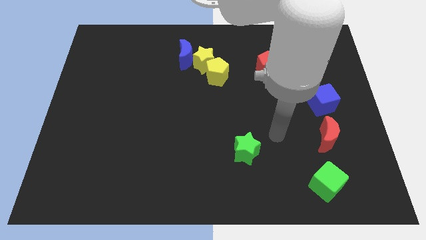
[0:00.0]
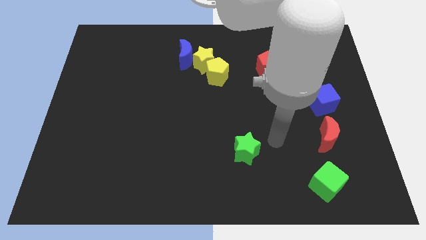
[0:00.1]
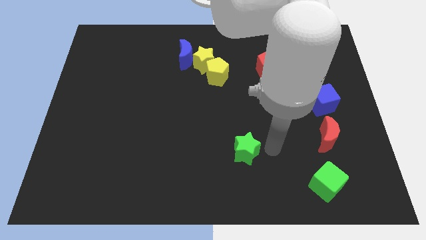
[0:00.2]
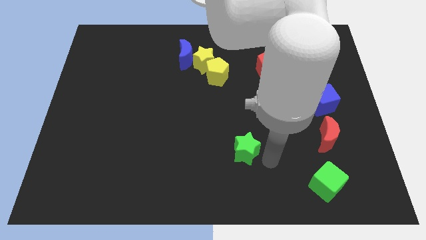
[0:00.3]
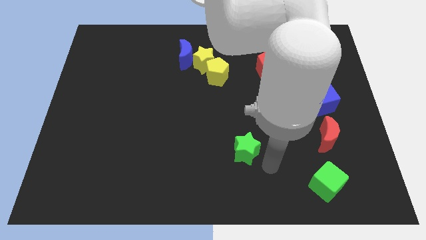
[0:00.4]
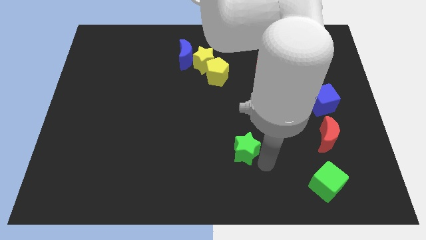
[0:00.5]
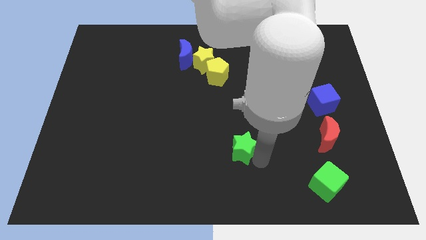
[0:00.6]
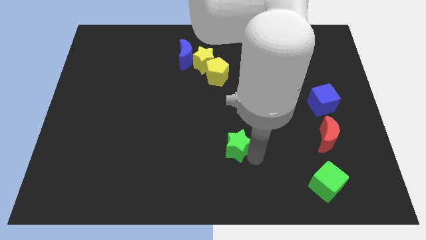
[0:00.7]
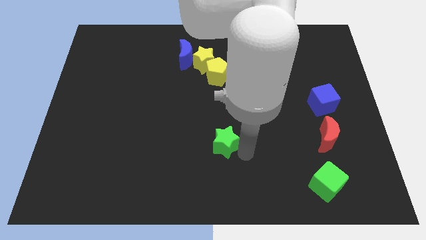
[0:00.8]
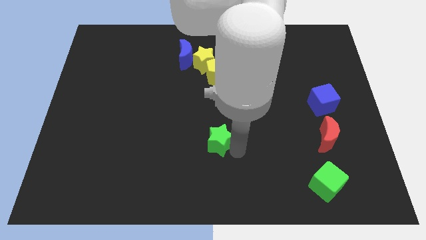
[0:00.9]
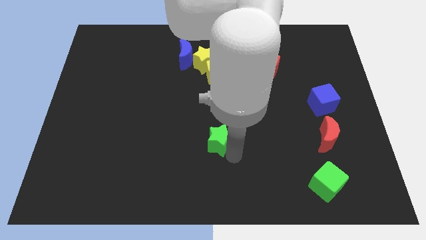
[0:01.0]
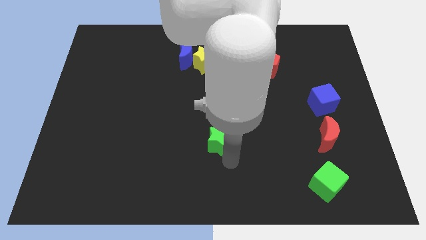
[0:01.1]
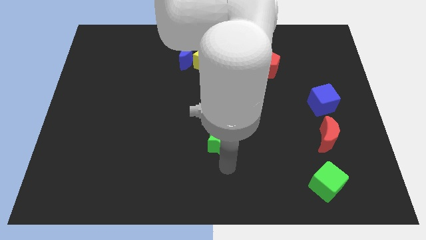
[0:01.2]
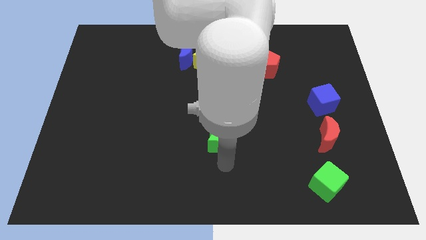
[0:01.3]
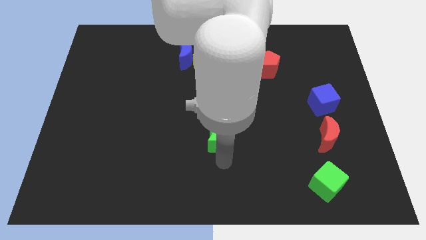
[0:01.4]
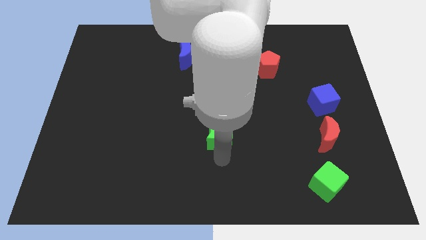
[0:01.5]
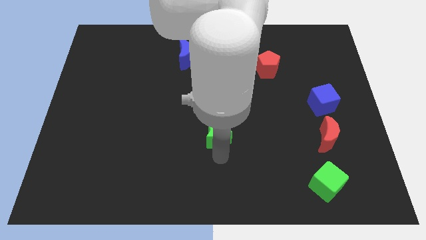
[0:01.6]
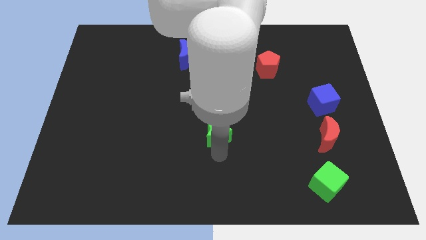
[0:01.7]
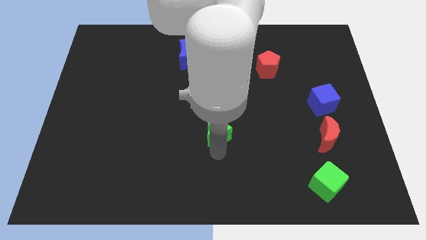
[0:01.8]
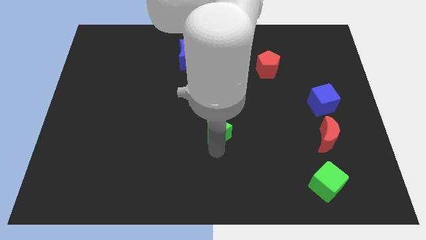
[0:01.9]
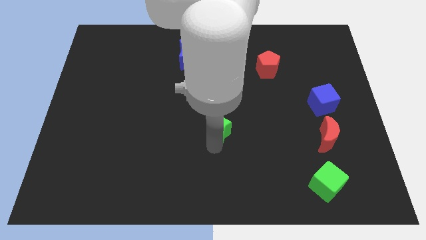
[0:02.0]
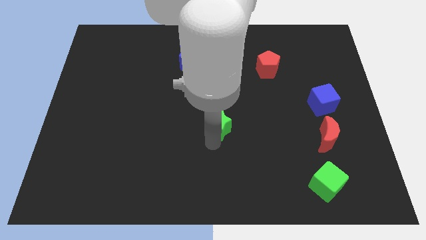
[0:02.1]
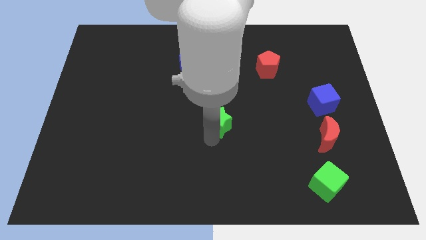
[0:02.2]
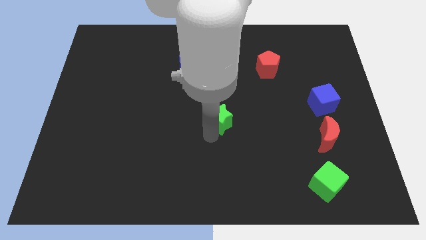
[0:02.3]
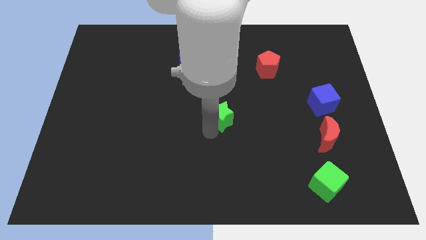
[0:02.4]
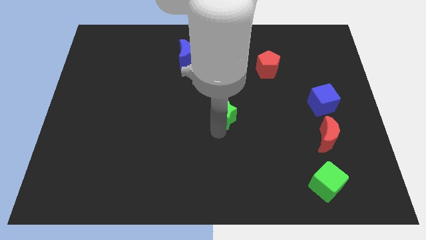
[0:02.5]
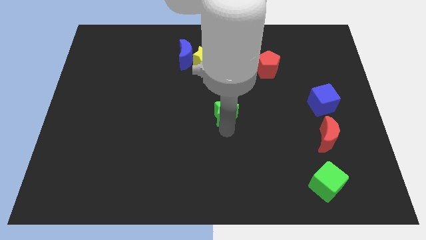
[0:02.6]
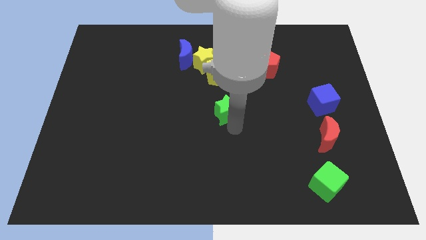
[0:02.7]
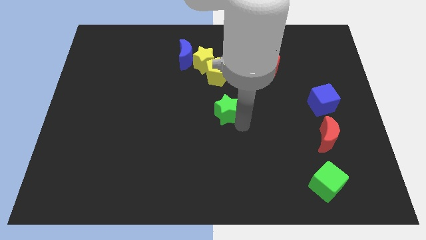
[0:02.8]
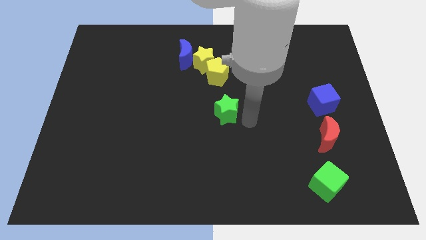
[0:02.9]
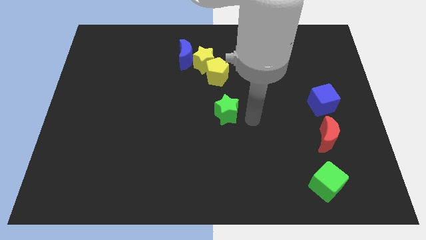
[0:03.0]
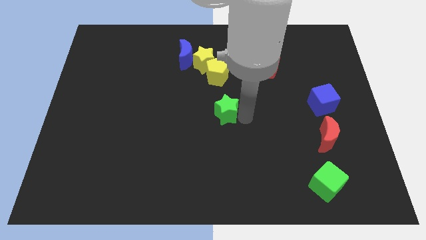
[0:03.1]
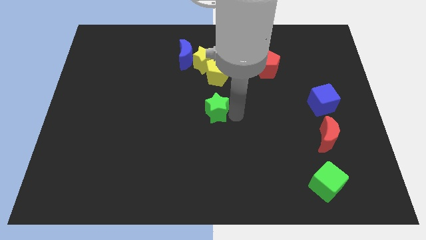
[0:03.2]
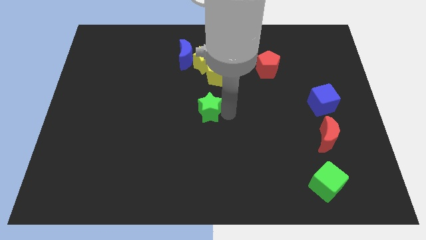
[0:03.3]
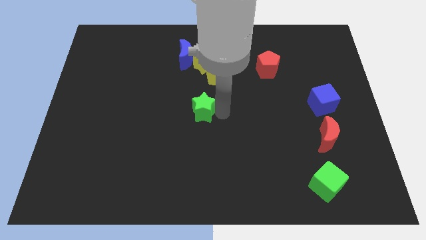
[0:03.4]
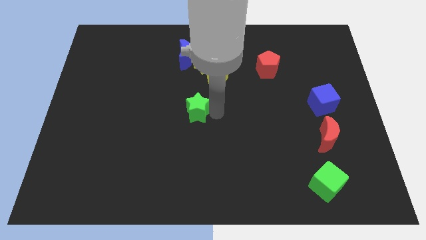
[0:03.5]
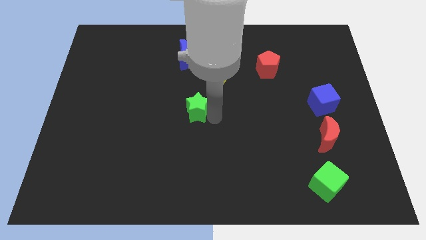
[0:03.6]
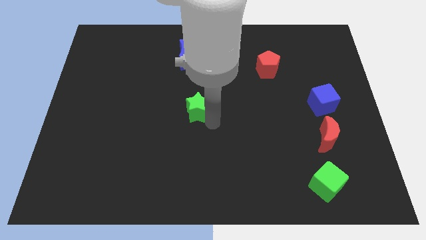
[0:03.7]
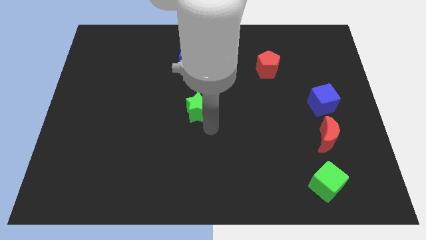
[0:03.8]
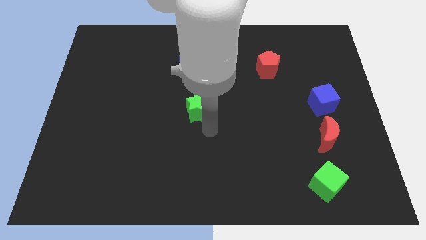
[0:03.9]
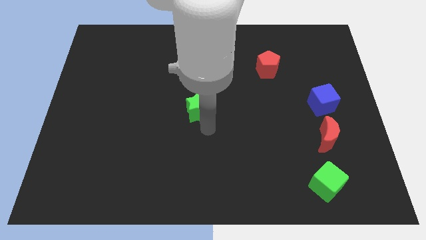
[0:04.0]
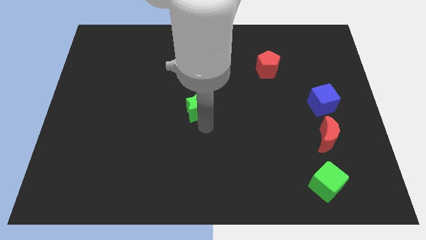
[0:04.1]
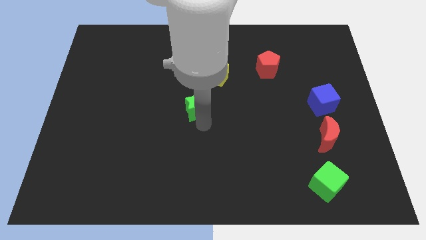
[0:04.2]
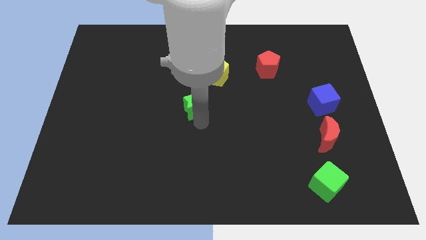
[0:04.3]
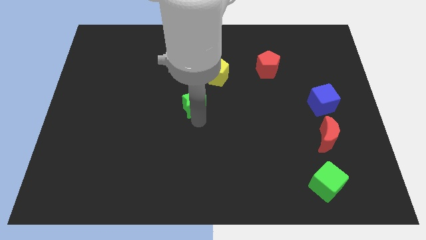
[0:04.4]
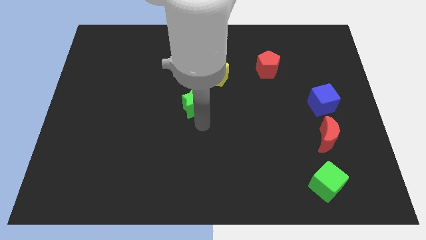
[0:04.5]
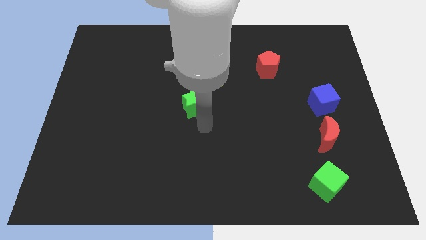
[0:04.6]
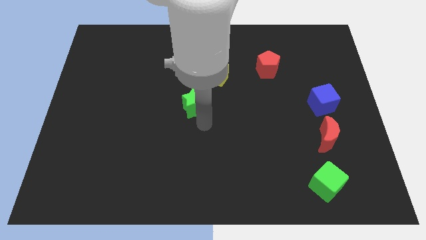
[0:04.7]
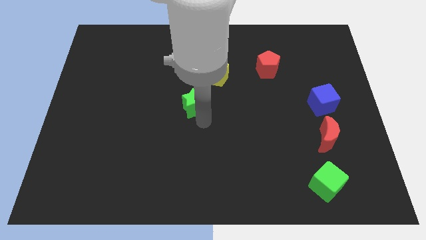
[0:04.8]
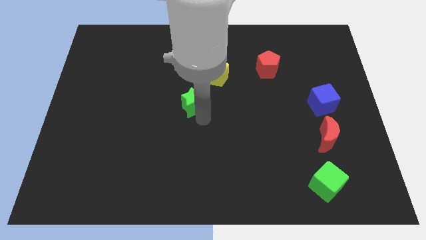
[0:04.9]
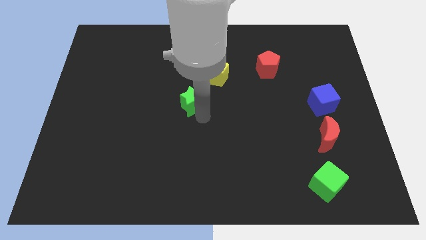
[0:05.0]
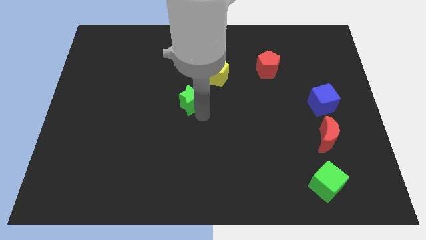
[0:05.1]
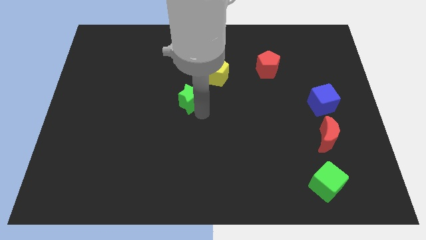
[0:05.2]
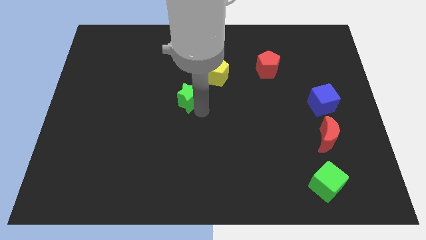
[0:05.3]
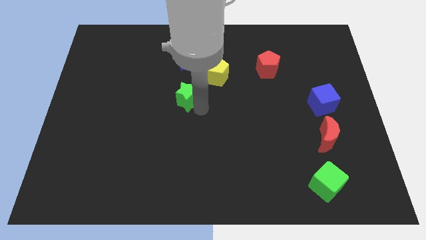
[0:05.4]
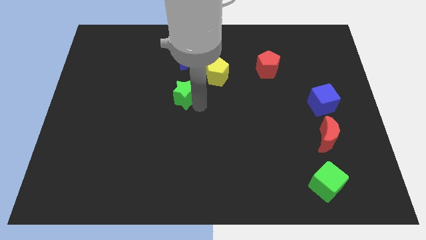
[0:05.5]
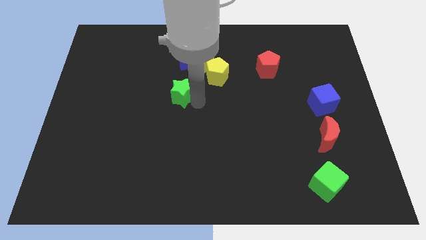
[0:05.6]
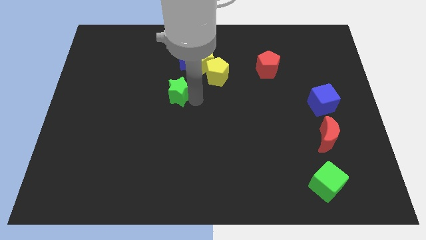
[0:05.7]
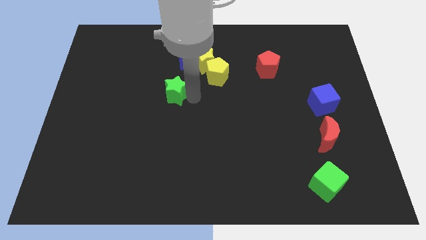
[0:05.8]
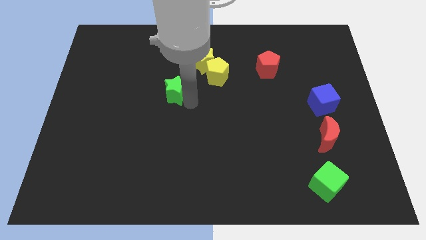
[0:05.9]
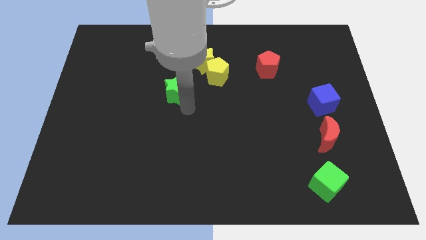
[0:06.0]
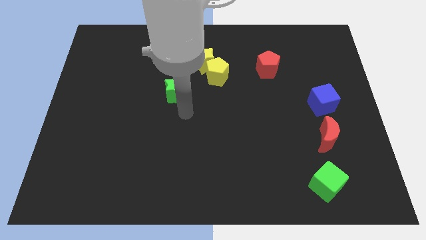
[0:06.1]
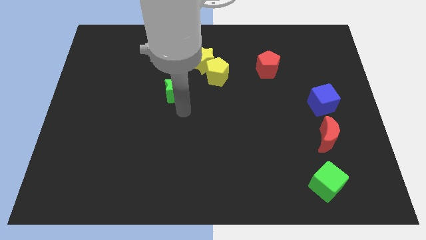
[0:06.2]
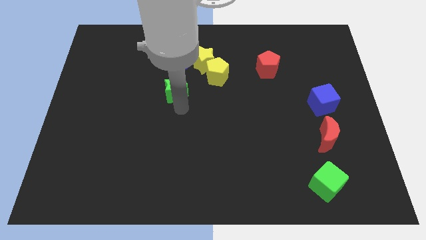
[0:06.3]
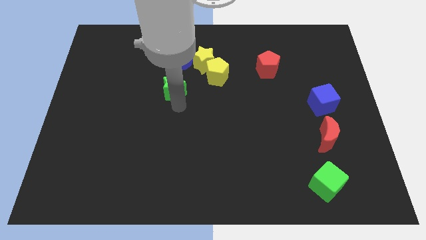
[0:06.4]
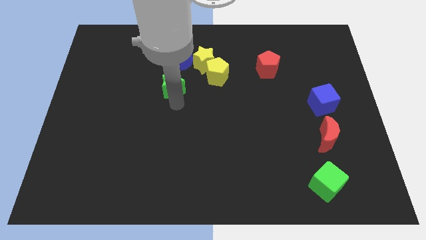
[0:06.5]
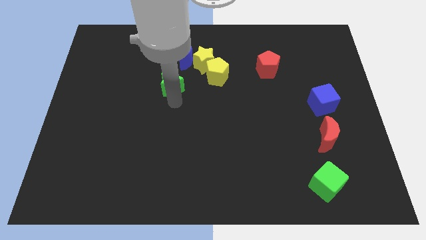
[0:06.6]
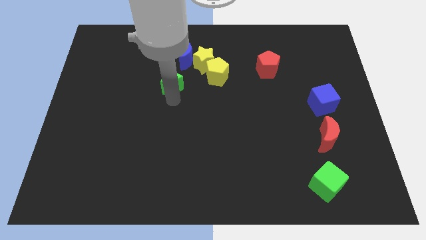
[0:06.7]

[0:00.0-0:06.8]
slide the green star diagonally down and to the left of the blue moon

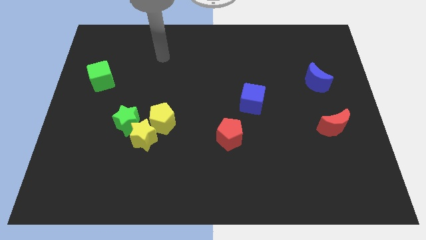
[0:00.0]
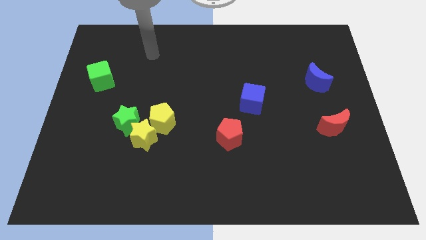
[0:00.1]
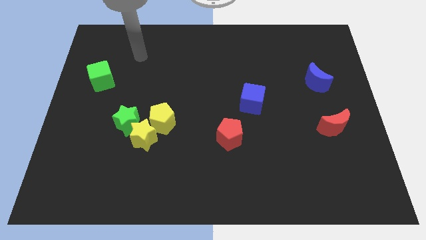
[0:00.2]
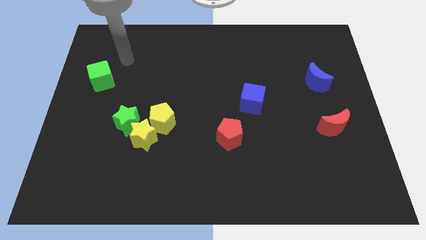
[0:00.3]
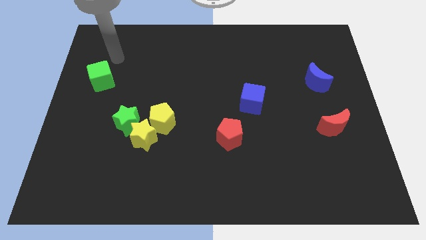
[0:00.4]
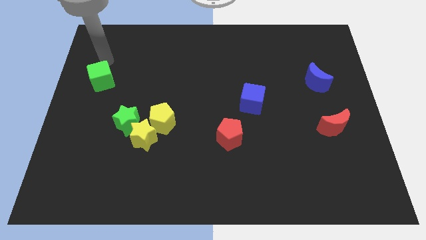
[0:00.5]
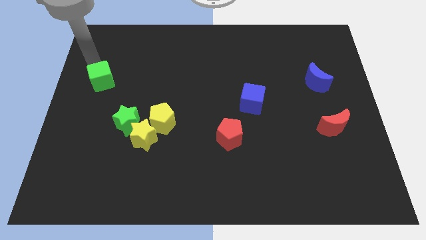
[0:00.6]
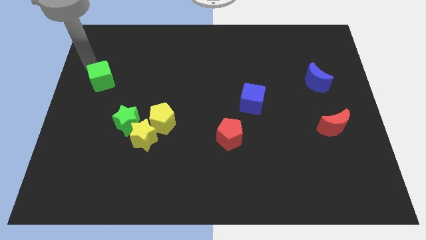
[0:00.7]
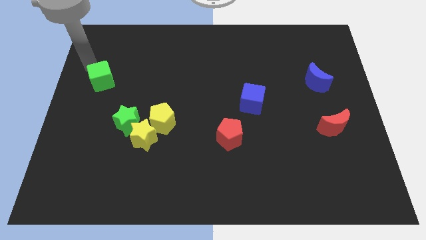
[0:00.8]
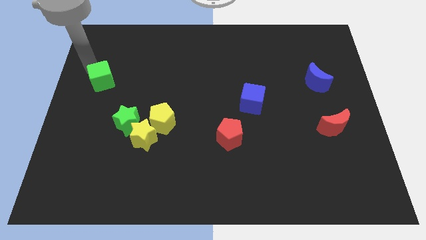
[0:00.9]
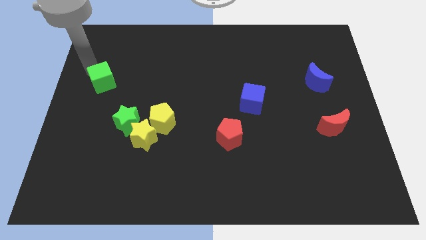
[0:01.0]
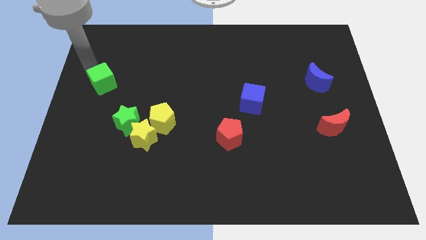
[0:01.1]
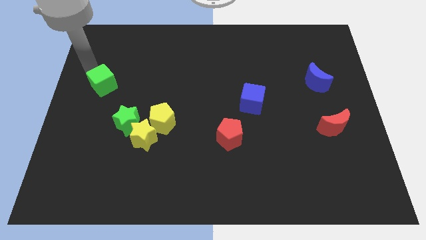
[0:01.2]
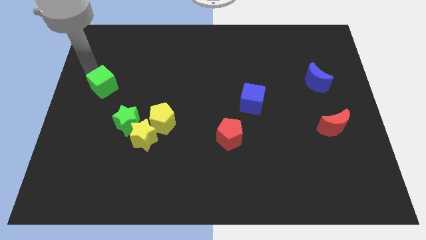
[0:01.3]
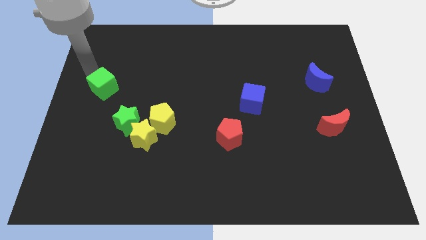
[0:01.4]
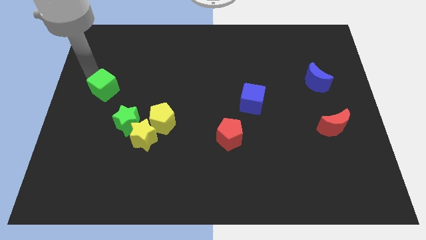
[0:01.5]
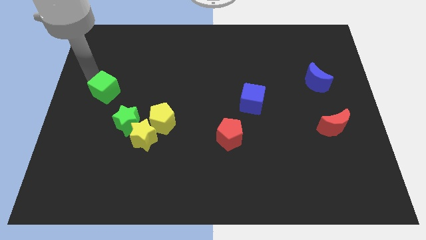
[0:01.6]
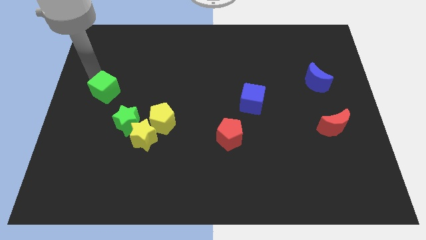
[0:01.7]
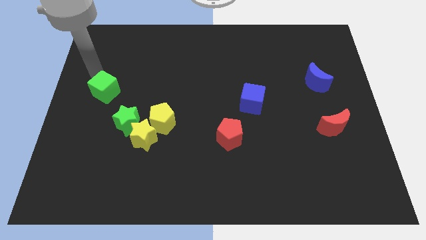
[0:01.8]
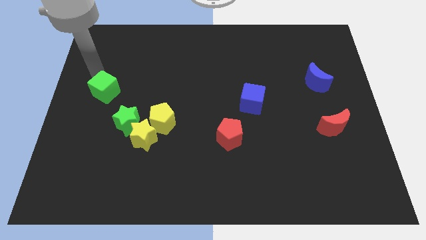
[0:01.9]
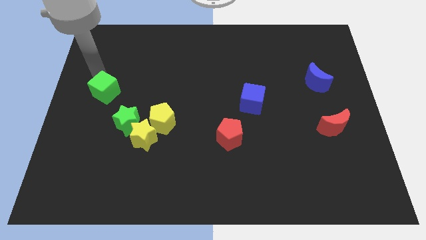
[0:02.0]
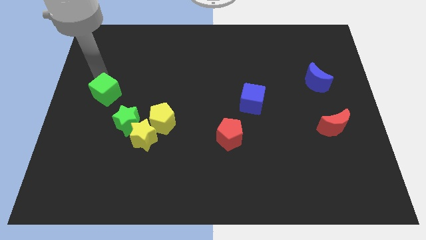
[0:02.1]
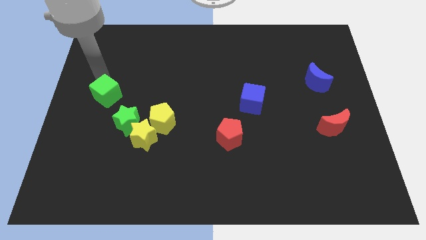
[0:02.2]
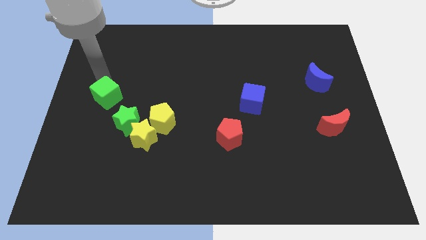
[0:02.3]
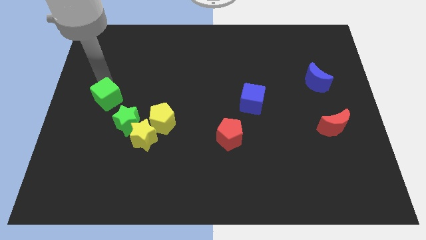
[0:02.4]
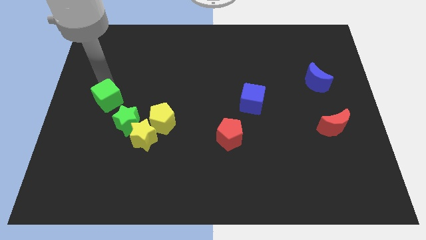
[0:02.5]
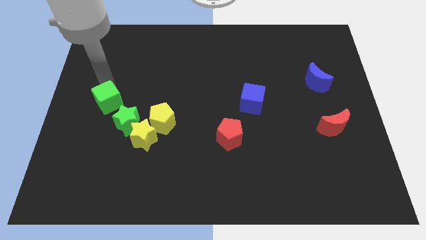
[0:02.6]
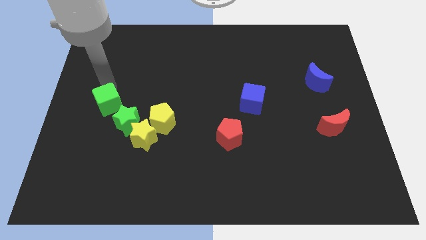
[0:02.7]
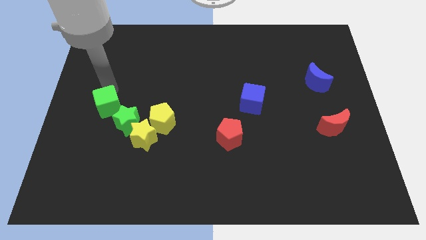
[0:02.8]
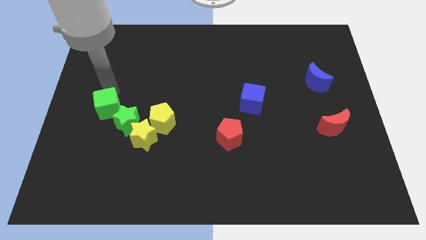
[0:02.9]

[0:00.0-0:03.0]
move the green cube to the left side of the yellow pentagon
